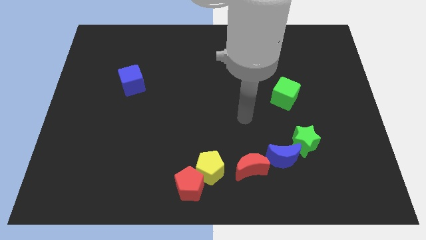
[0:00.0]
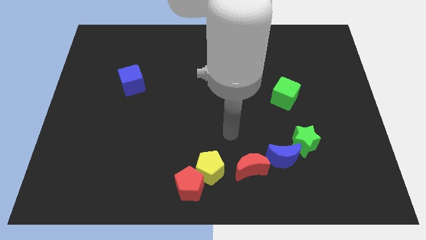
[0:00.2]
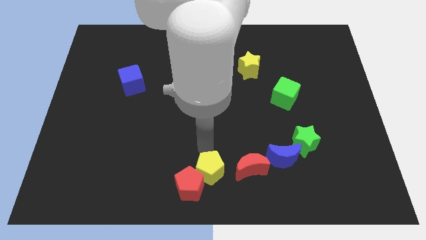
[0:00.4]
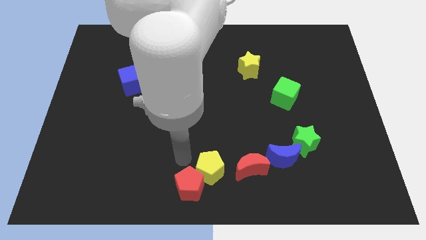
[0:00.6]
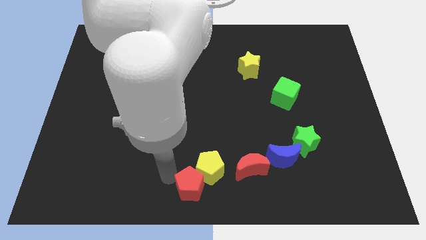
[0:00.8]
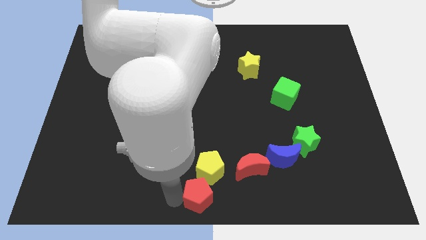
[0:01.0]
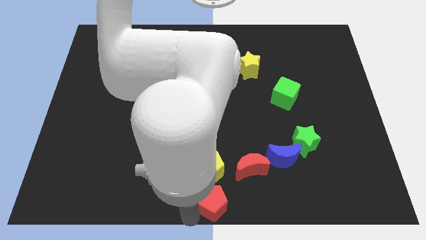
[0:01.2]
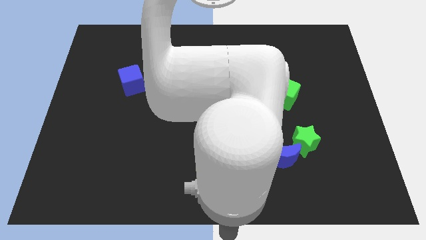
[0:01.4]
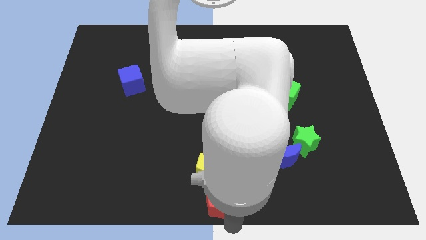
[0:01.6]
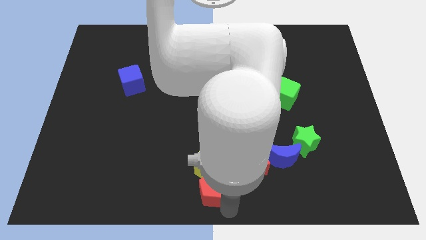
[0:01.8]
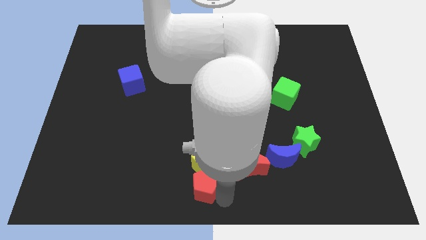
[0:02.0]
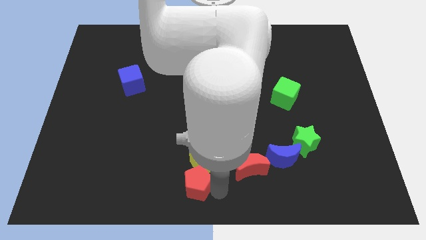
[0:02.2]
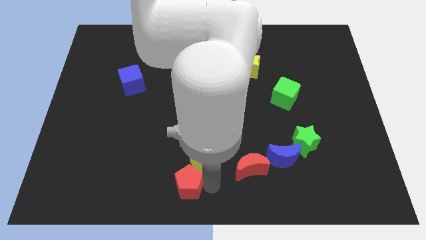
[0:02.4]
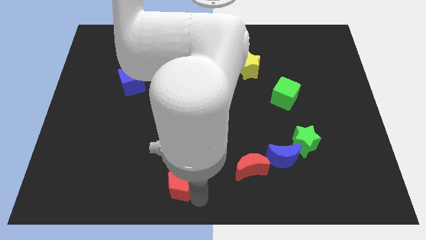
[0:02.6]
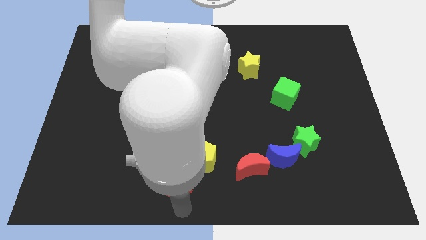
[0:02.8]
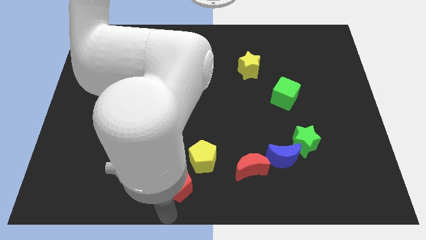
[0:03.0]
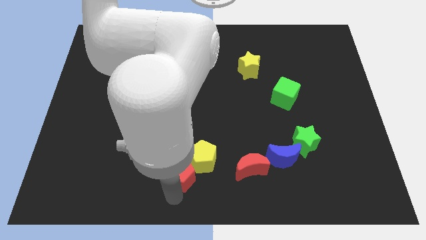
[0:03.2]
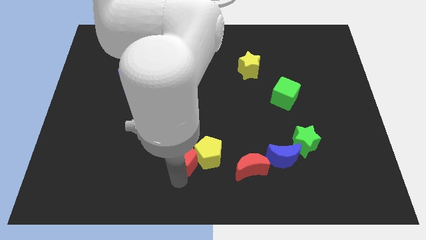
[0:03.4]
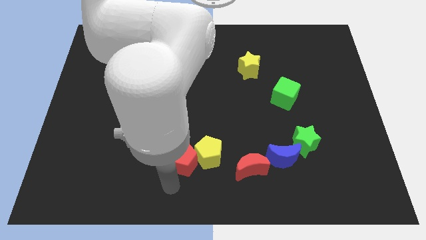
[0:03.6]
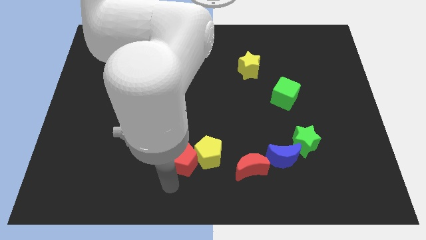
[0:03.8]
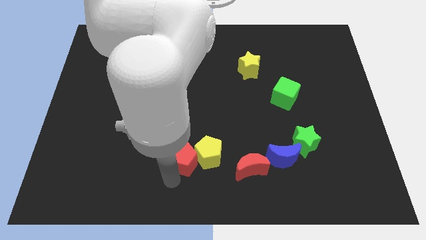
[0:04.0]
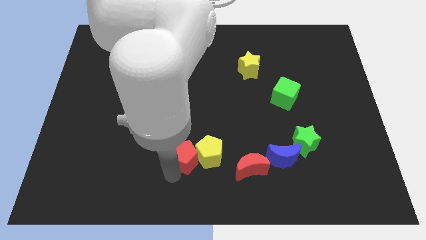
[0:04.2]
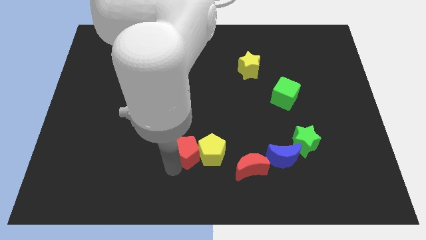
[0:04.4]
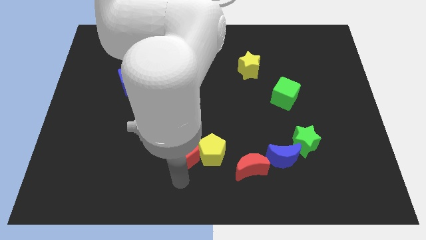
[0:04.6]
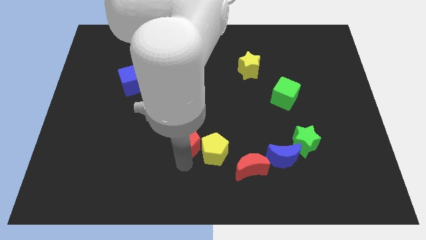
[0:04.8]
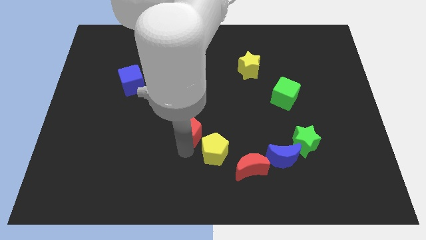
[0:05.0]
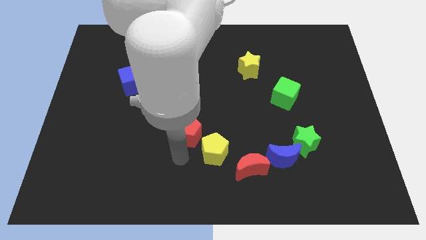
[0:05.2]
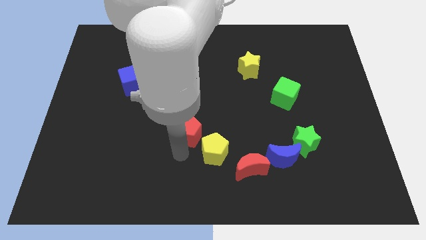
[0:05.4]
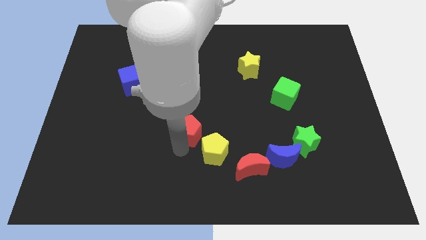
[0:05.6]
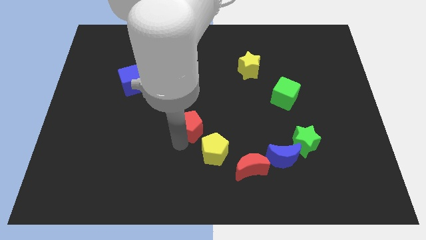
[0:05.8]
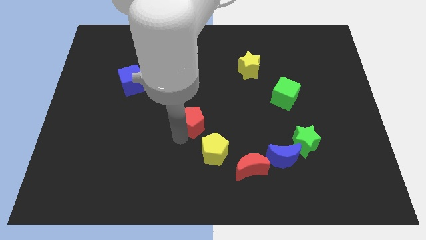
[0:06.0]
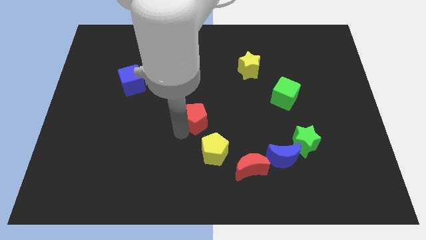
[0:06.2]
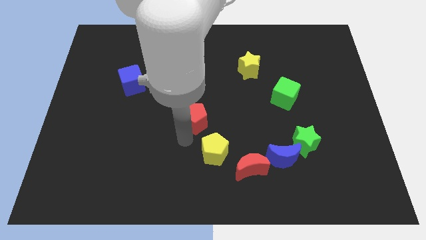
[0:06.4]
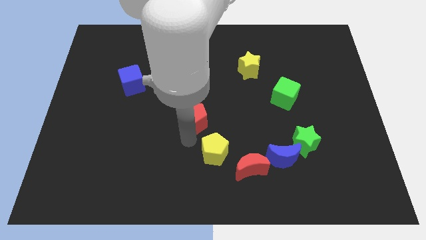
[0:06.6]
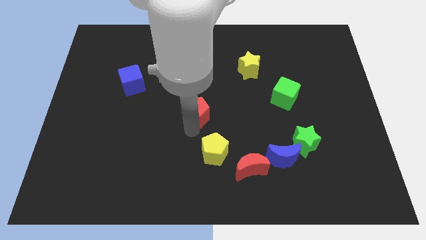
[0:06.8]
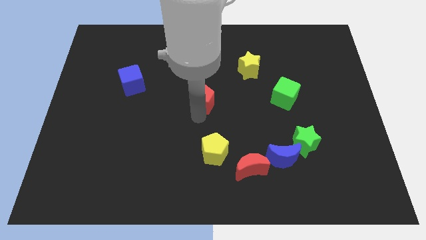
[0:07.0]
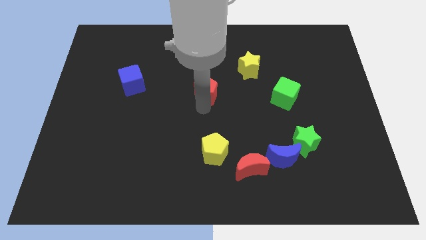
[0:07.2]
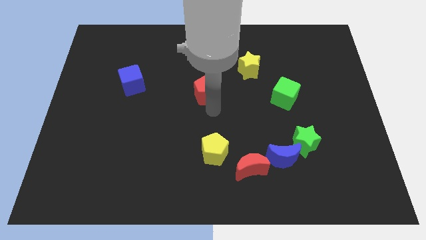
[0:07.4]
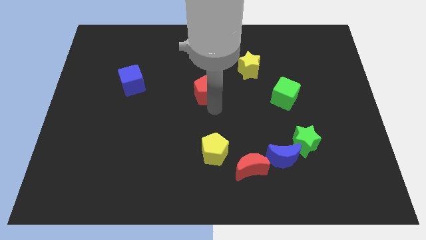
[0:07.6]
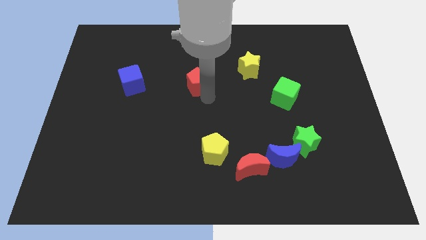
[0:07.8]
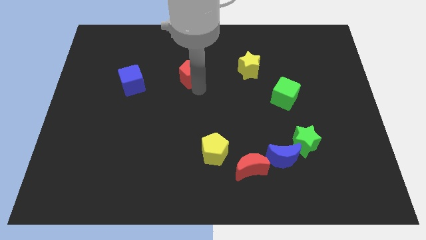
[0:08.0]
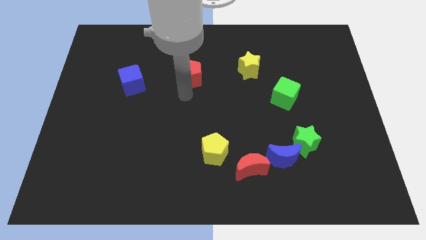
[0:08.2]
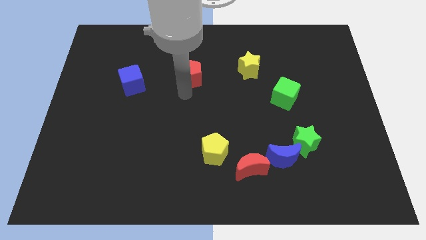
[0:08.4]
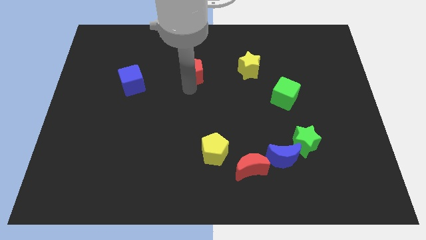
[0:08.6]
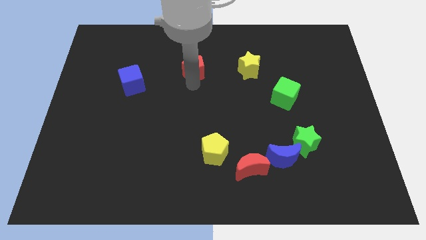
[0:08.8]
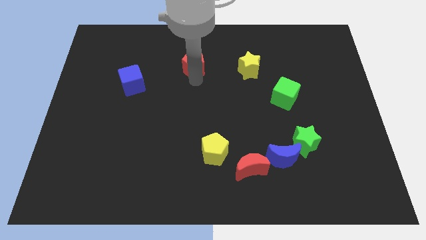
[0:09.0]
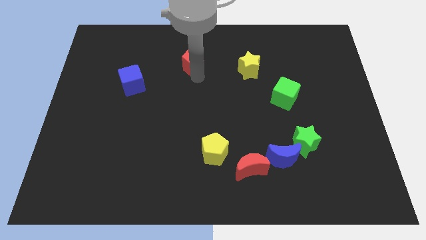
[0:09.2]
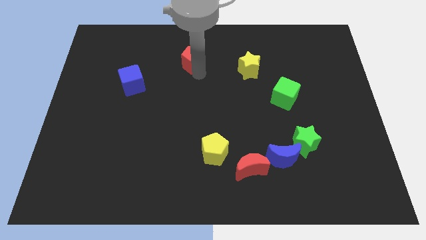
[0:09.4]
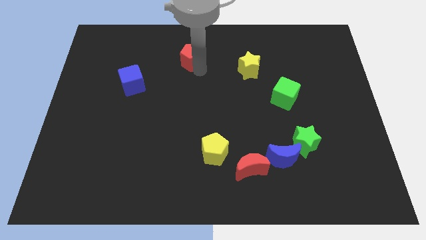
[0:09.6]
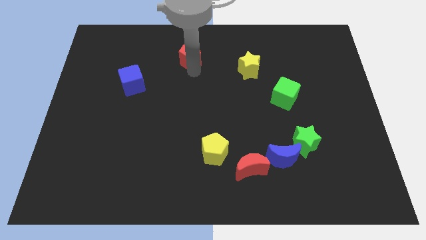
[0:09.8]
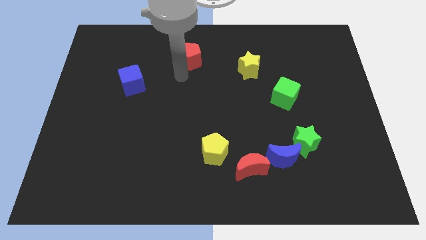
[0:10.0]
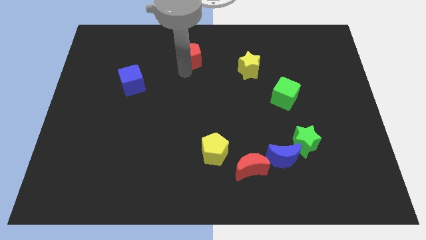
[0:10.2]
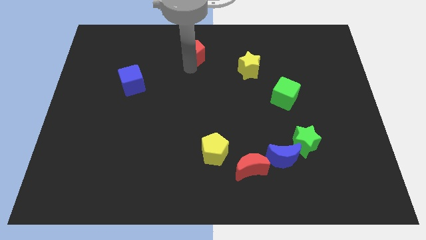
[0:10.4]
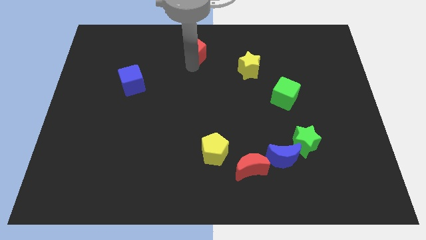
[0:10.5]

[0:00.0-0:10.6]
push the red pentagon to the towards your base

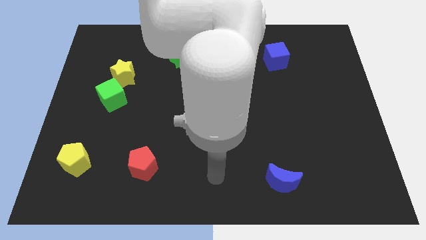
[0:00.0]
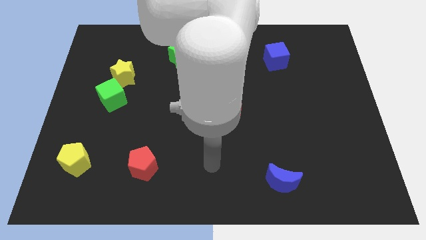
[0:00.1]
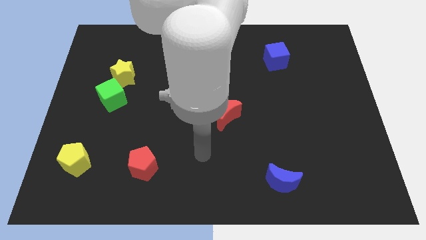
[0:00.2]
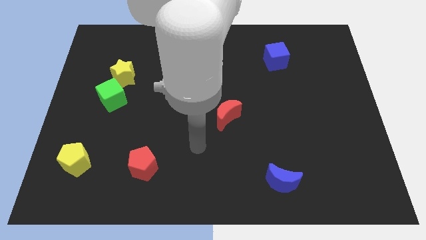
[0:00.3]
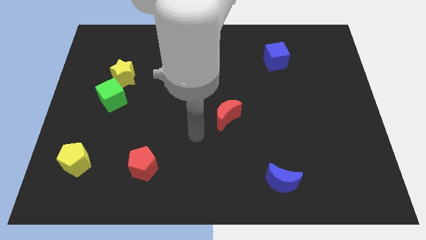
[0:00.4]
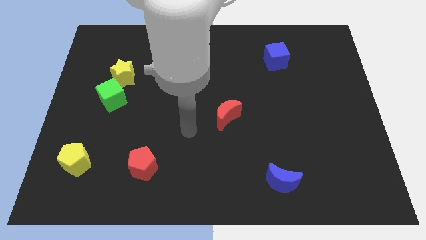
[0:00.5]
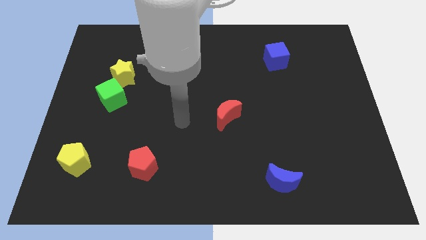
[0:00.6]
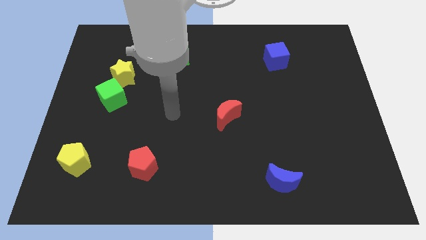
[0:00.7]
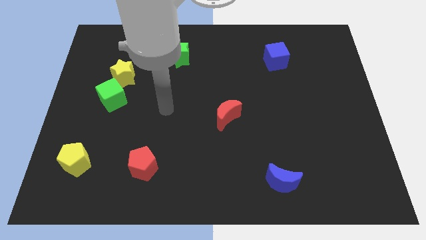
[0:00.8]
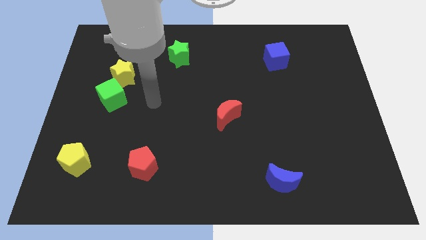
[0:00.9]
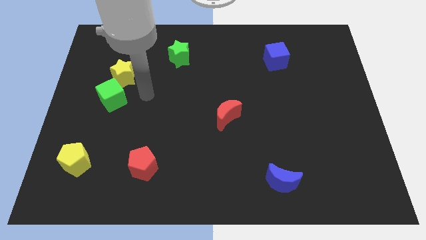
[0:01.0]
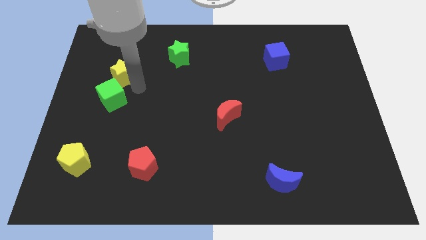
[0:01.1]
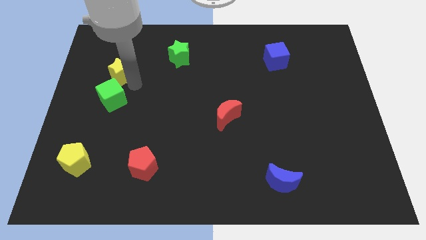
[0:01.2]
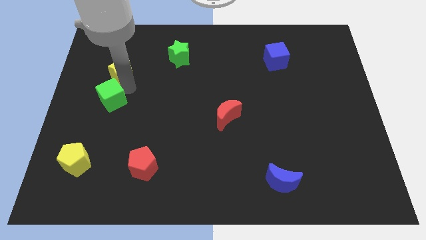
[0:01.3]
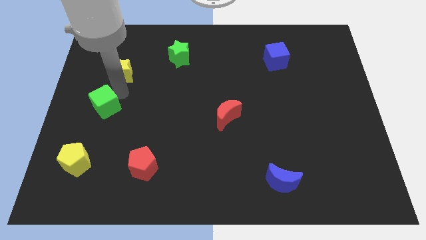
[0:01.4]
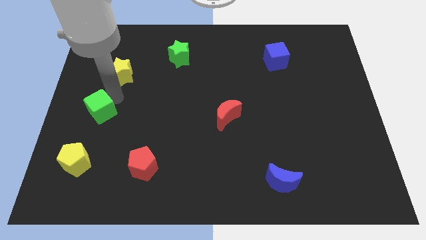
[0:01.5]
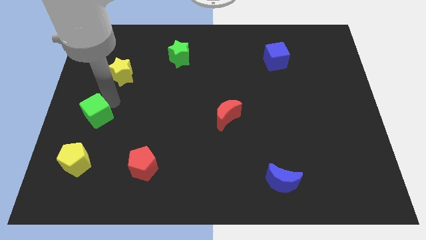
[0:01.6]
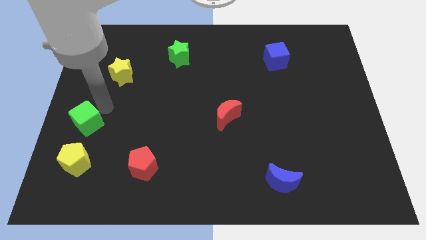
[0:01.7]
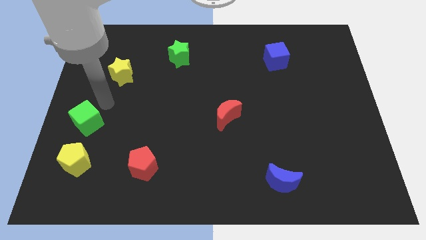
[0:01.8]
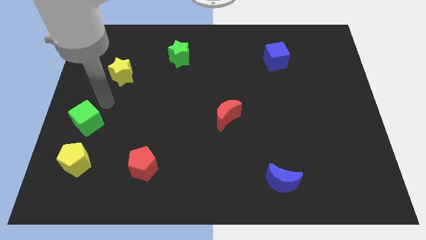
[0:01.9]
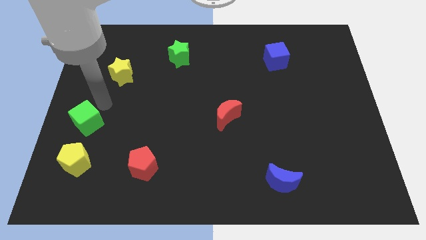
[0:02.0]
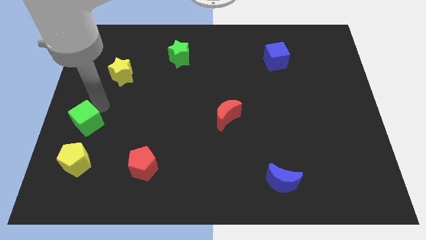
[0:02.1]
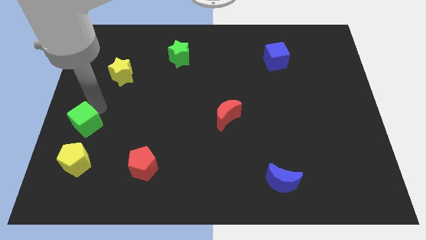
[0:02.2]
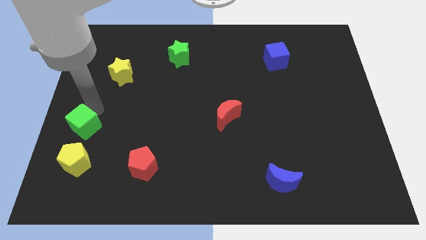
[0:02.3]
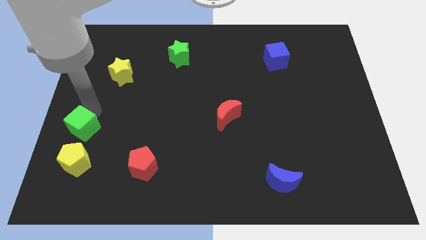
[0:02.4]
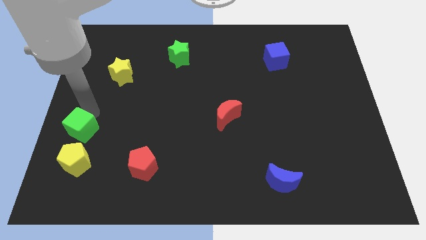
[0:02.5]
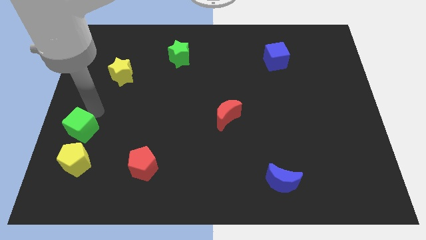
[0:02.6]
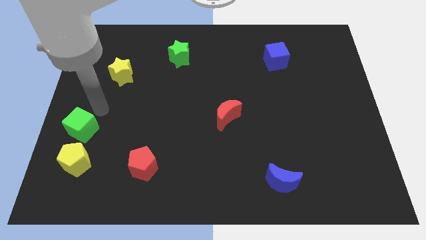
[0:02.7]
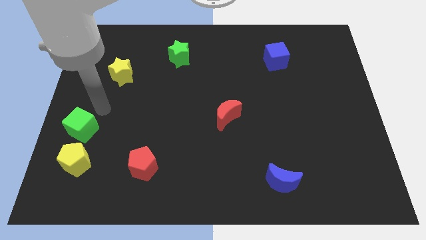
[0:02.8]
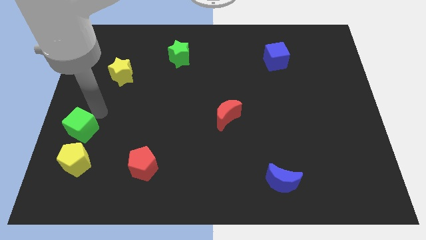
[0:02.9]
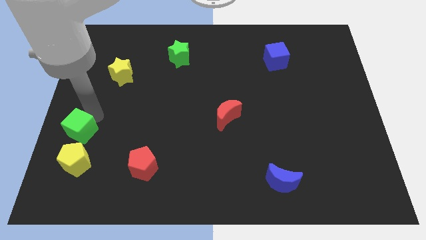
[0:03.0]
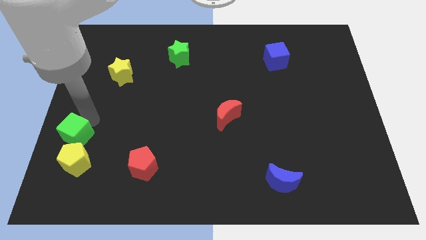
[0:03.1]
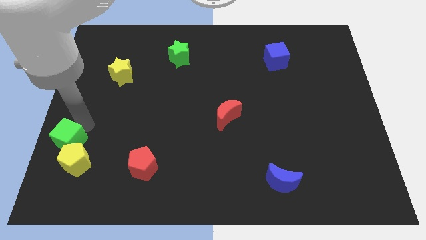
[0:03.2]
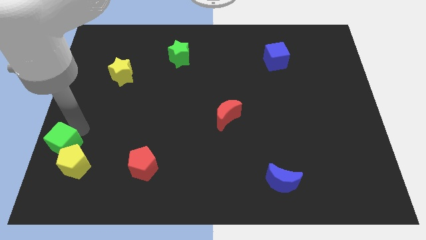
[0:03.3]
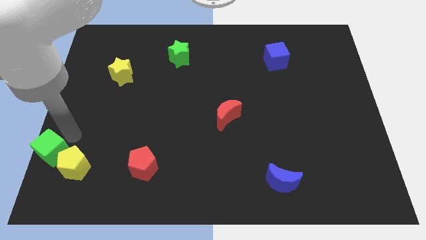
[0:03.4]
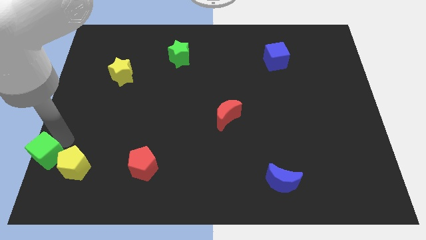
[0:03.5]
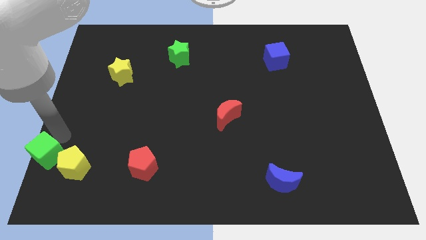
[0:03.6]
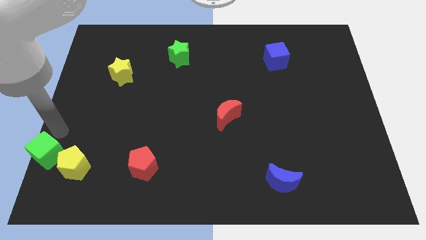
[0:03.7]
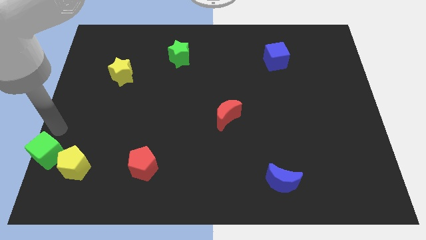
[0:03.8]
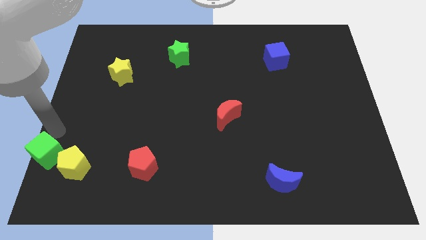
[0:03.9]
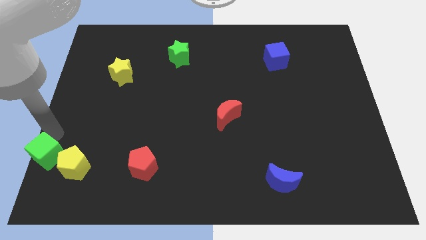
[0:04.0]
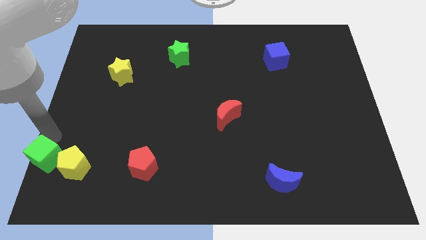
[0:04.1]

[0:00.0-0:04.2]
push the green cube to the bottom left of the board
